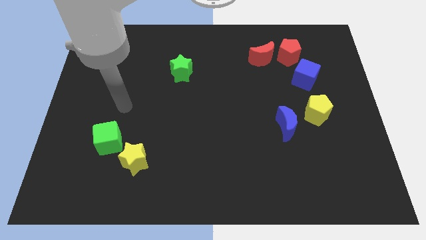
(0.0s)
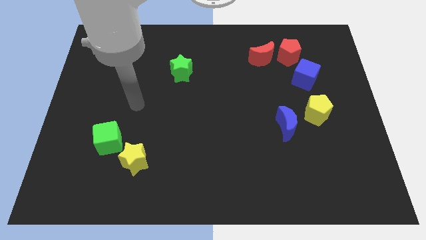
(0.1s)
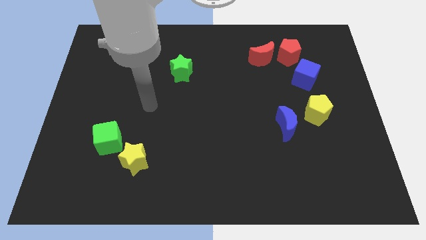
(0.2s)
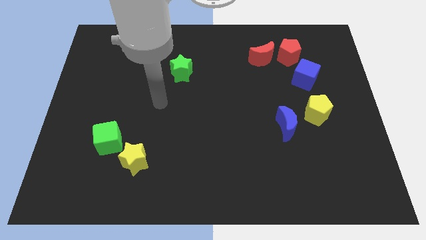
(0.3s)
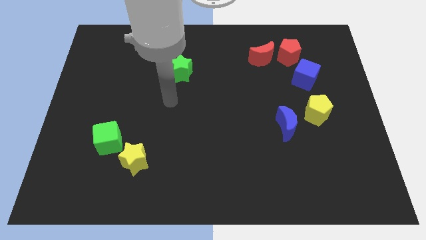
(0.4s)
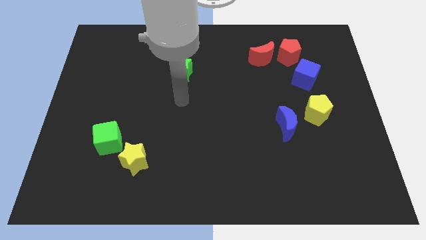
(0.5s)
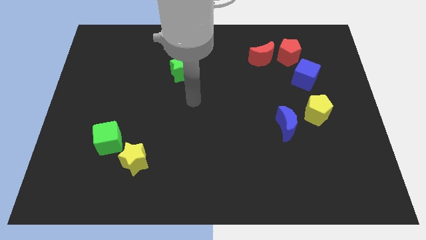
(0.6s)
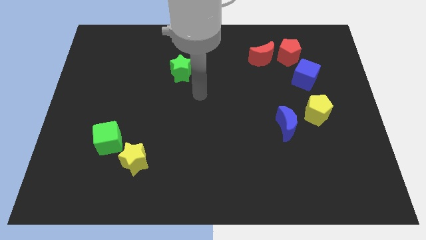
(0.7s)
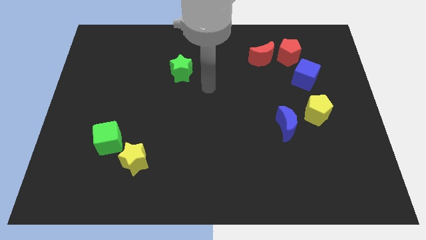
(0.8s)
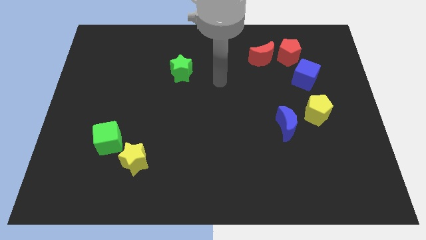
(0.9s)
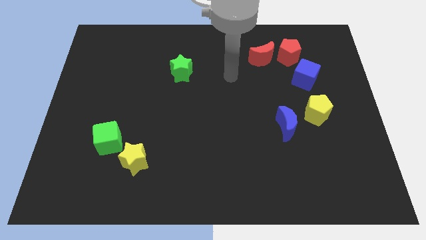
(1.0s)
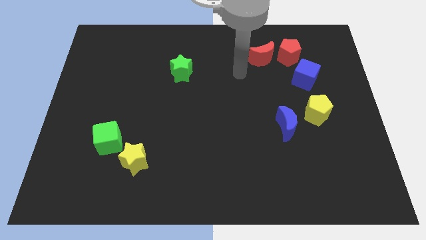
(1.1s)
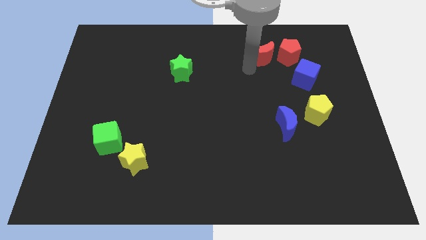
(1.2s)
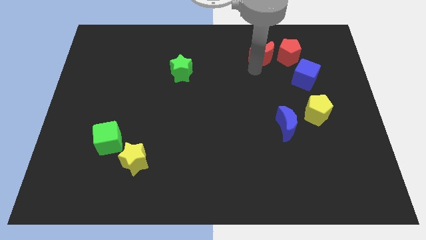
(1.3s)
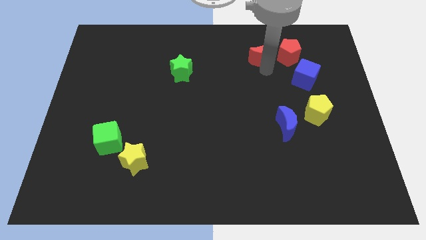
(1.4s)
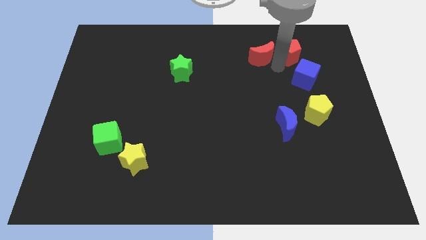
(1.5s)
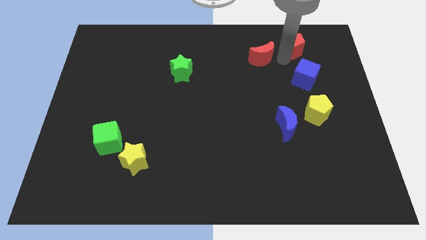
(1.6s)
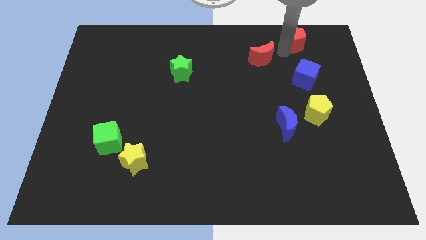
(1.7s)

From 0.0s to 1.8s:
move the red moon away from the red pentagon

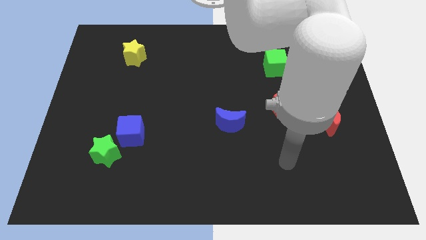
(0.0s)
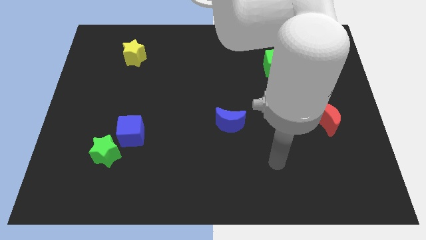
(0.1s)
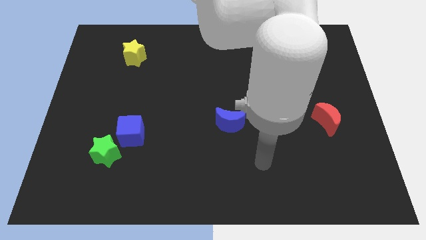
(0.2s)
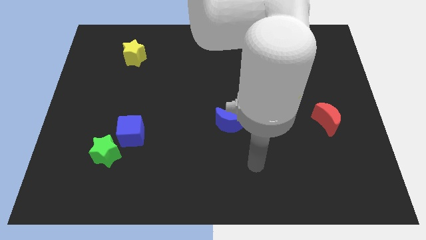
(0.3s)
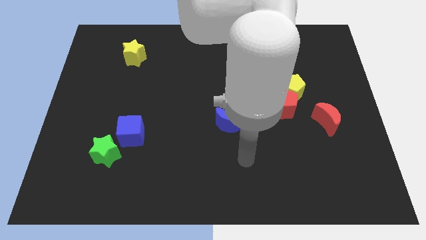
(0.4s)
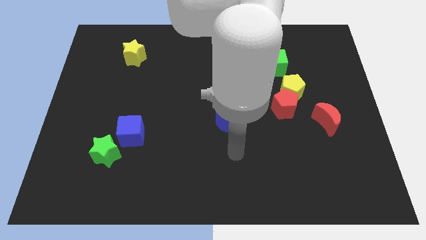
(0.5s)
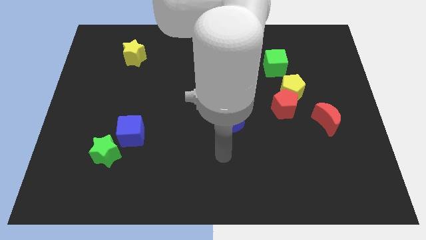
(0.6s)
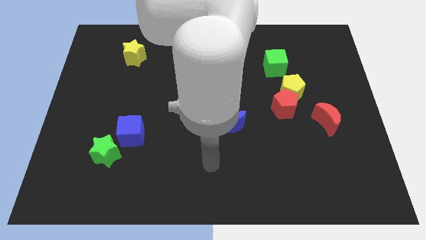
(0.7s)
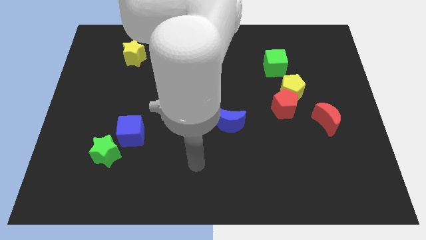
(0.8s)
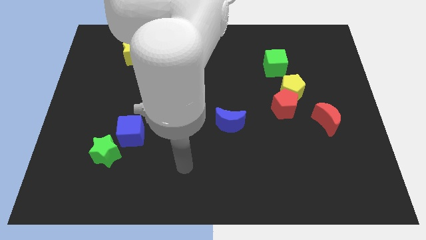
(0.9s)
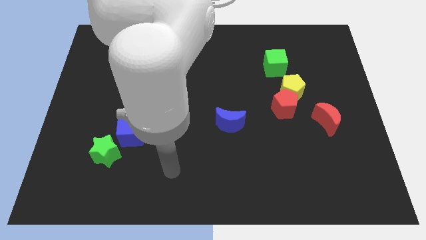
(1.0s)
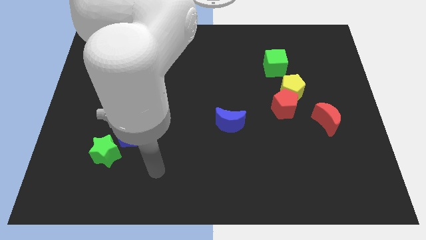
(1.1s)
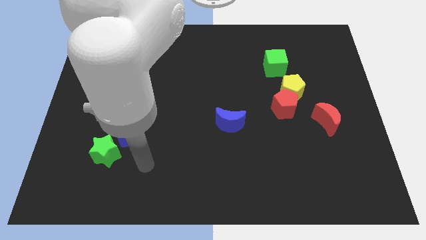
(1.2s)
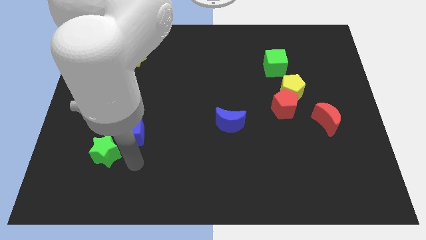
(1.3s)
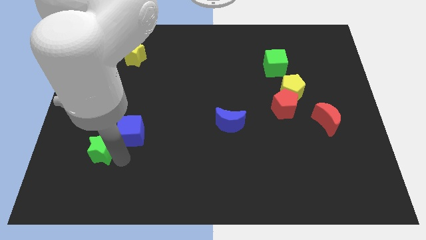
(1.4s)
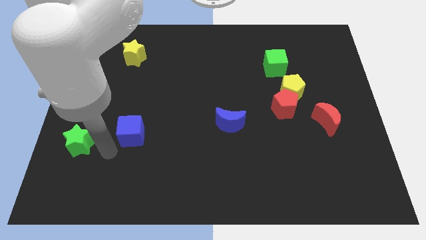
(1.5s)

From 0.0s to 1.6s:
separate the blue cube from the green star

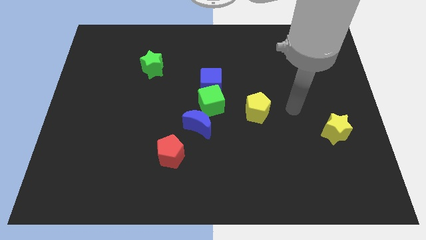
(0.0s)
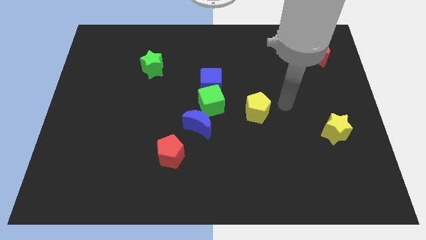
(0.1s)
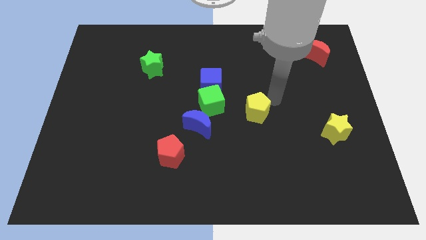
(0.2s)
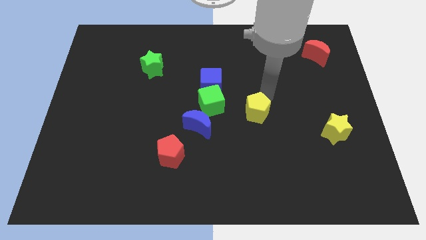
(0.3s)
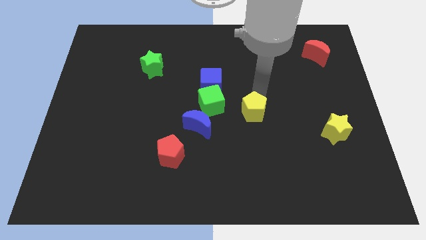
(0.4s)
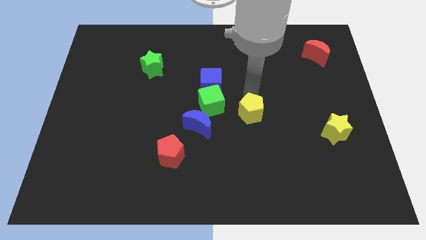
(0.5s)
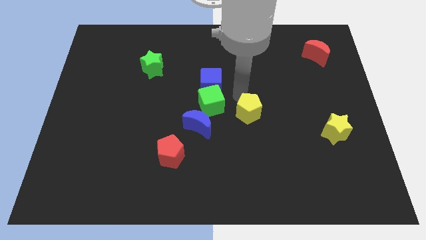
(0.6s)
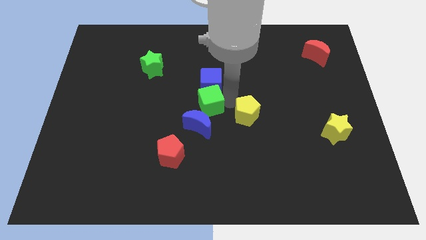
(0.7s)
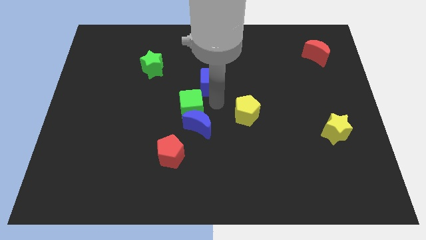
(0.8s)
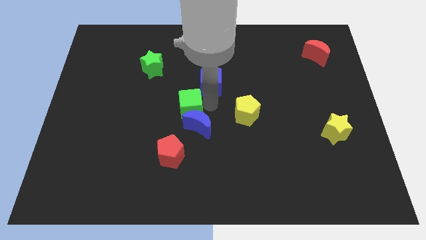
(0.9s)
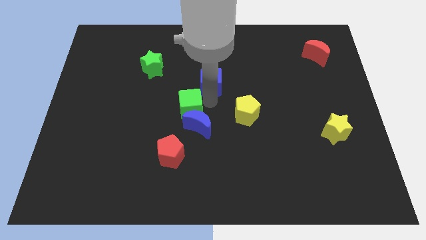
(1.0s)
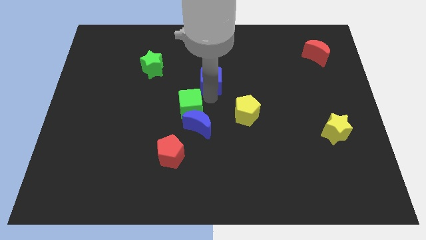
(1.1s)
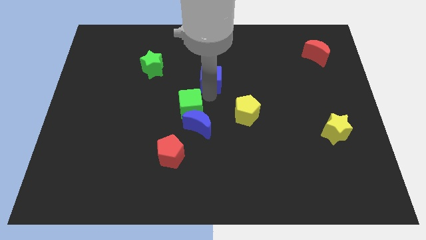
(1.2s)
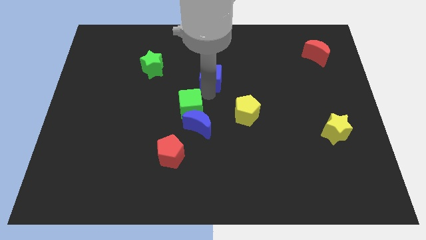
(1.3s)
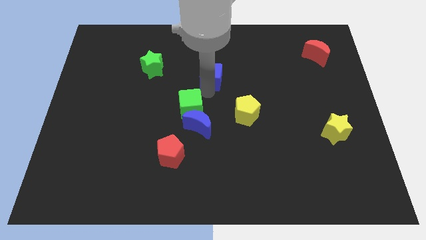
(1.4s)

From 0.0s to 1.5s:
move the blue cube away from the green cube

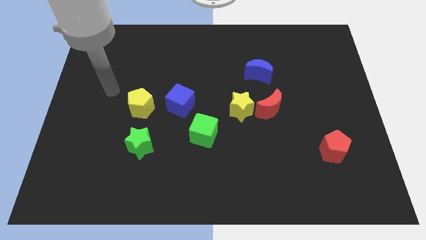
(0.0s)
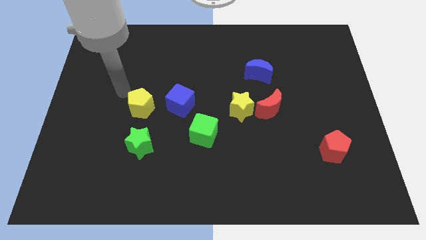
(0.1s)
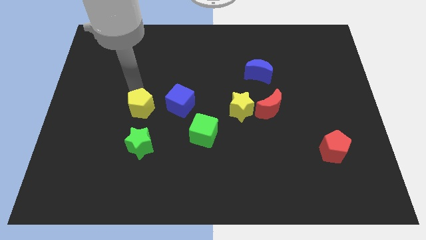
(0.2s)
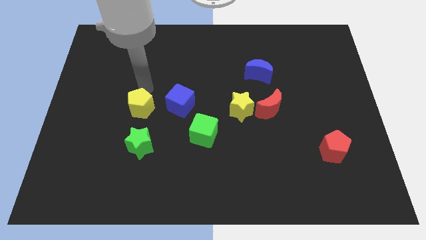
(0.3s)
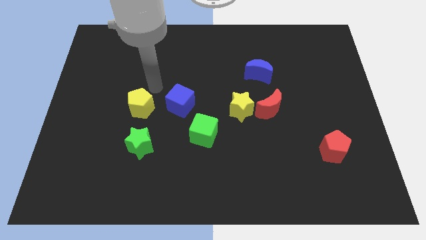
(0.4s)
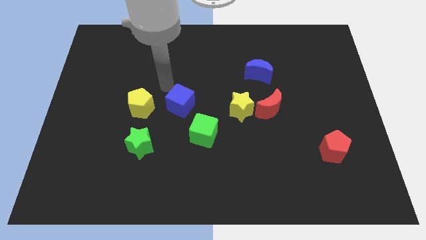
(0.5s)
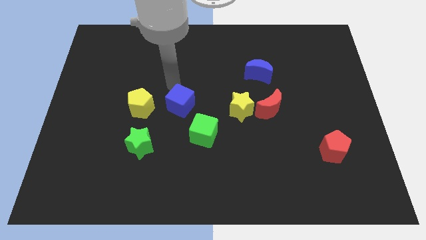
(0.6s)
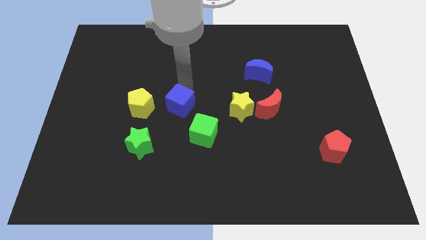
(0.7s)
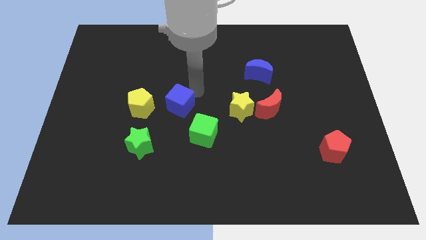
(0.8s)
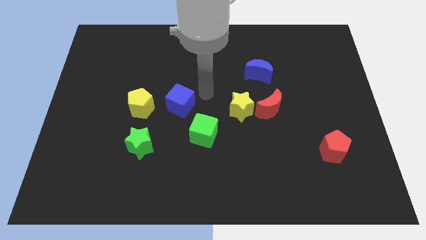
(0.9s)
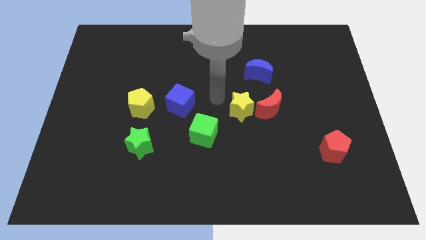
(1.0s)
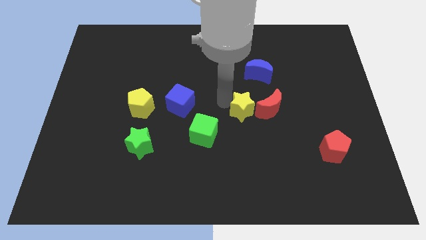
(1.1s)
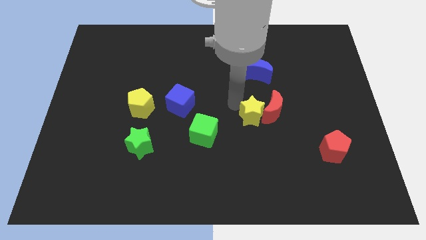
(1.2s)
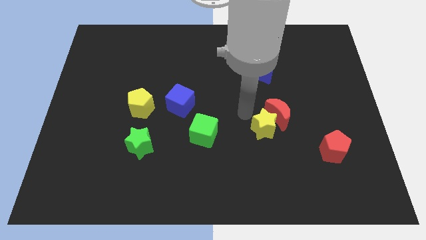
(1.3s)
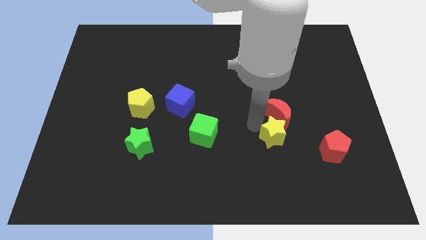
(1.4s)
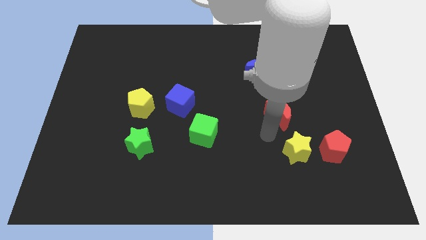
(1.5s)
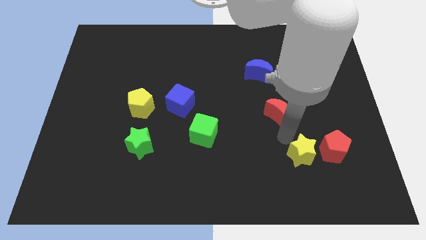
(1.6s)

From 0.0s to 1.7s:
separate the red moon from the yellow star

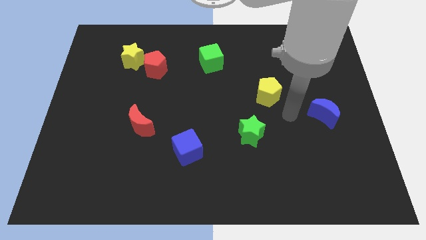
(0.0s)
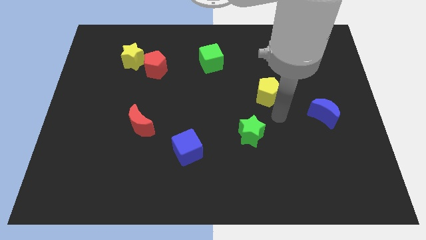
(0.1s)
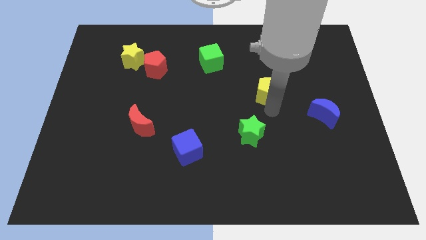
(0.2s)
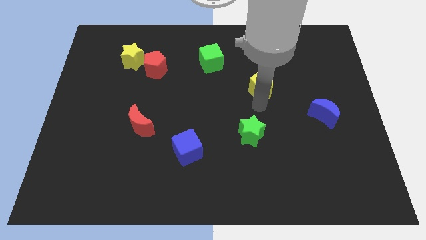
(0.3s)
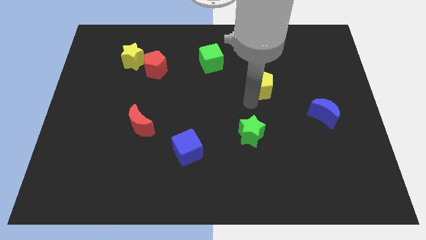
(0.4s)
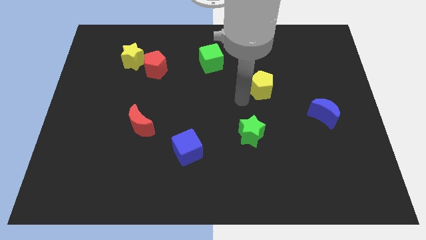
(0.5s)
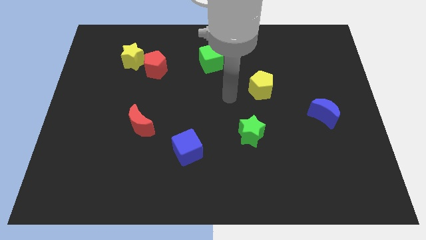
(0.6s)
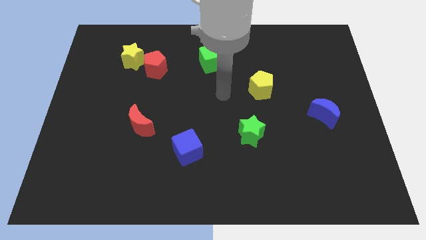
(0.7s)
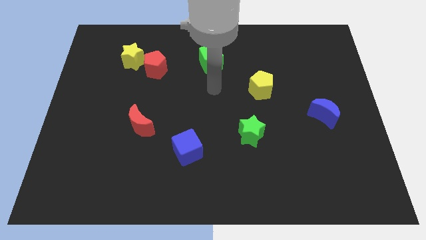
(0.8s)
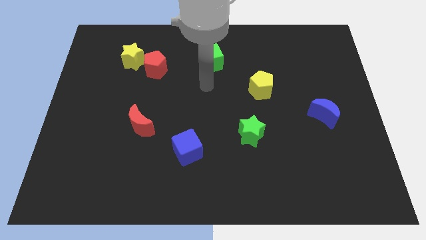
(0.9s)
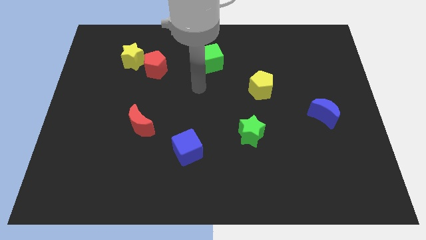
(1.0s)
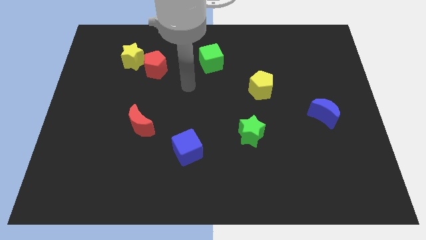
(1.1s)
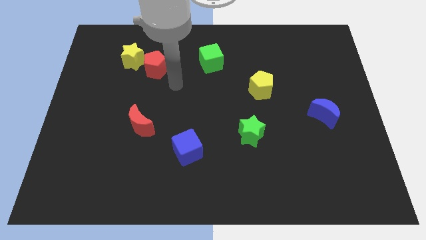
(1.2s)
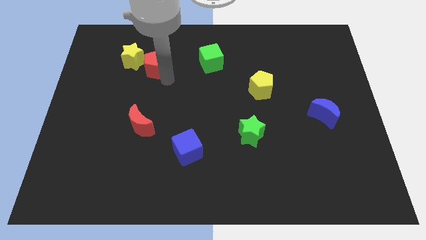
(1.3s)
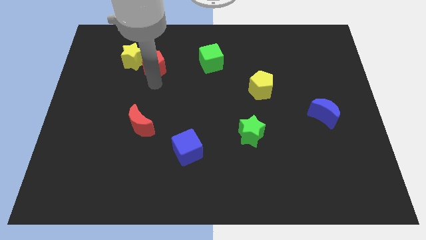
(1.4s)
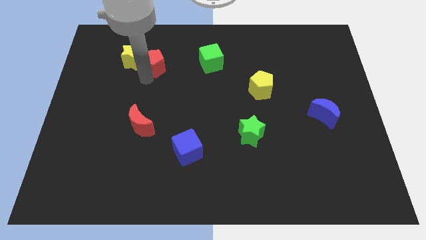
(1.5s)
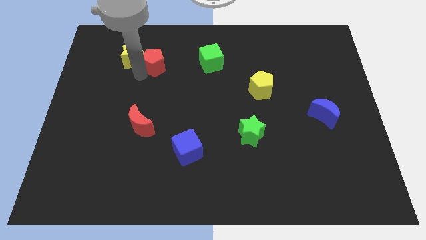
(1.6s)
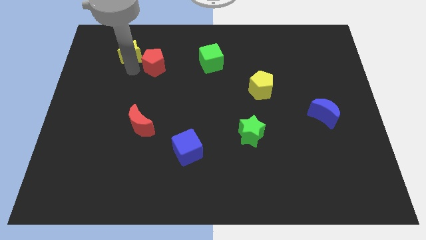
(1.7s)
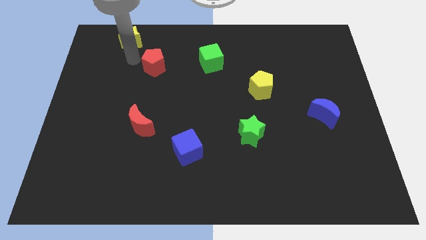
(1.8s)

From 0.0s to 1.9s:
pull the red pentagon apart from the yellow star

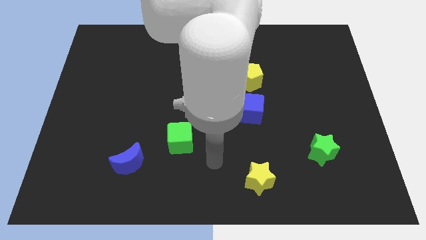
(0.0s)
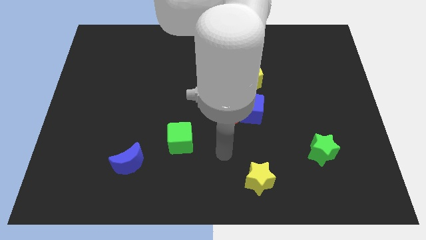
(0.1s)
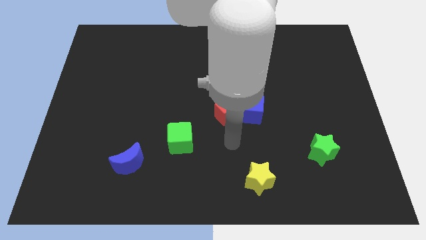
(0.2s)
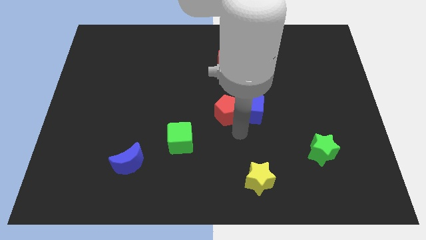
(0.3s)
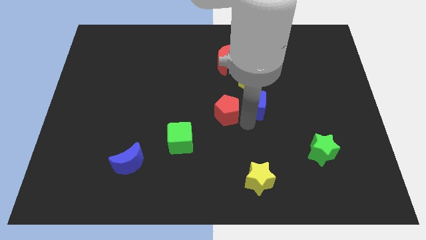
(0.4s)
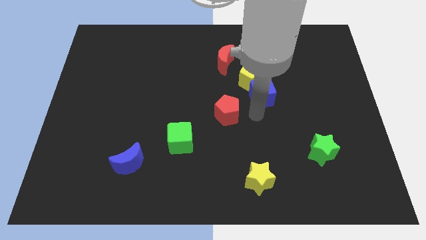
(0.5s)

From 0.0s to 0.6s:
move the red pentagon away from the blue cube
